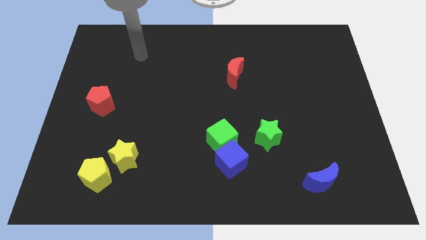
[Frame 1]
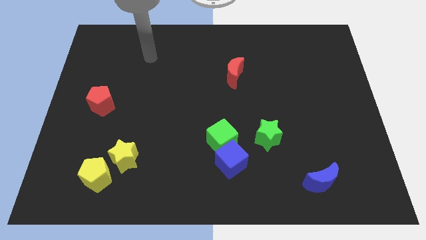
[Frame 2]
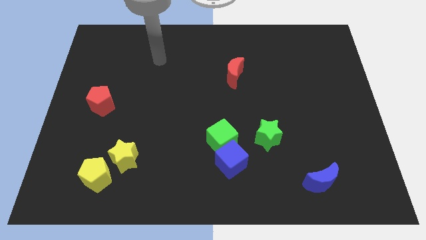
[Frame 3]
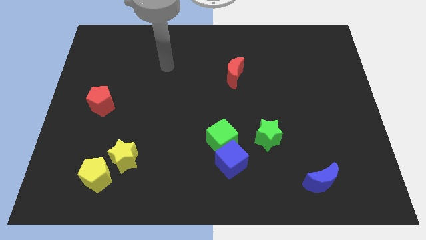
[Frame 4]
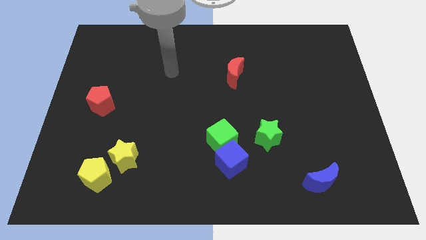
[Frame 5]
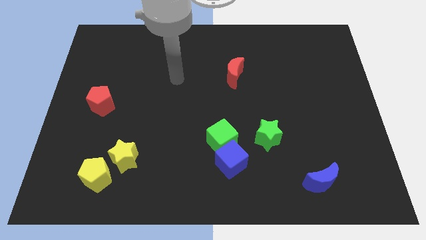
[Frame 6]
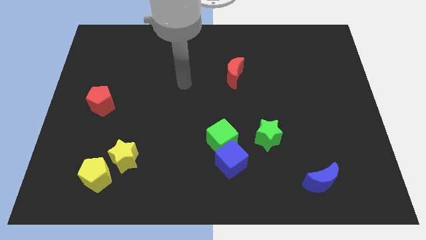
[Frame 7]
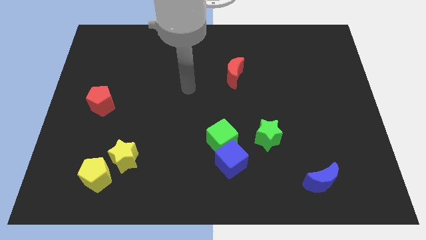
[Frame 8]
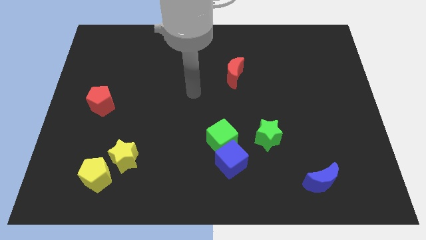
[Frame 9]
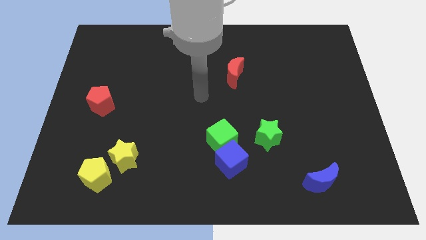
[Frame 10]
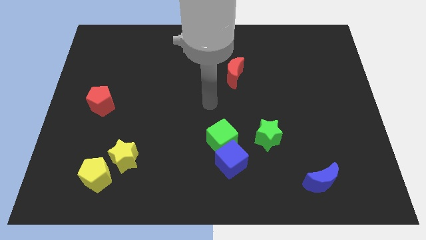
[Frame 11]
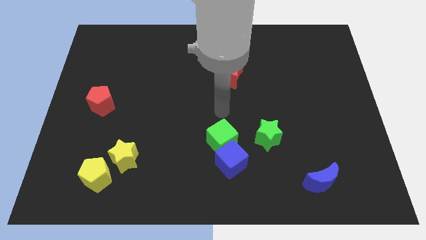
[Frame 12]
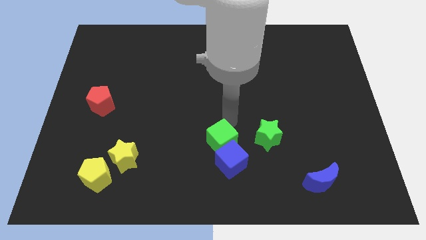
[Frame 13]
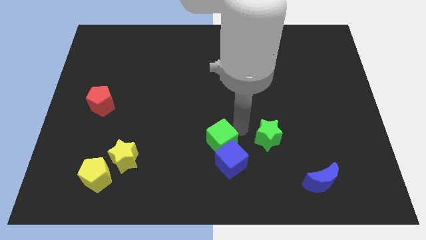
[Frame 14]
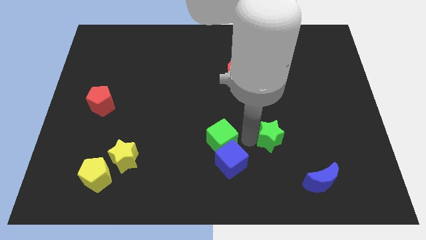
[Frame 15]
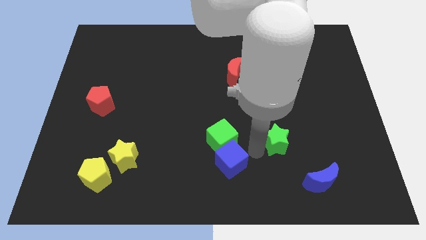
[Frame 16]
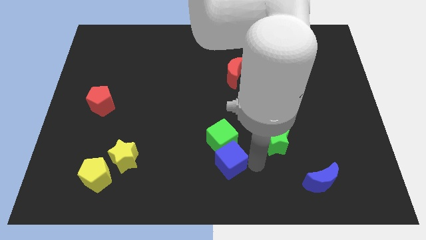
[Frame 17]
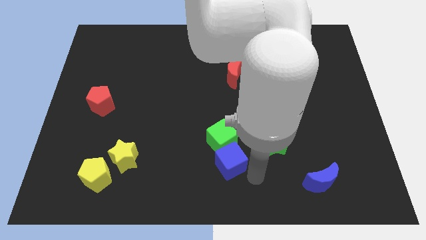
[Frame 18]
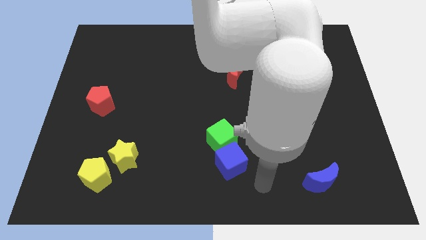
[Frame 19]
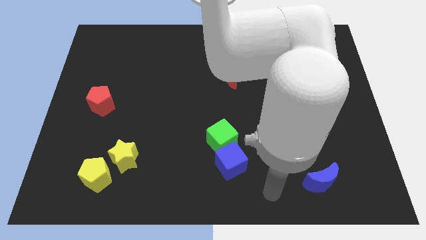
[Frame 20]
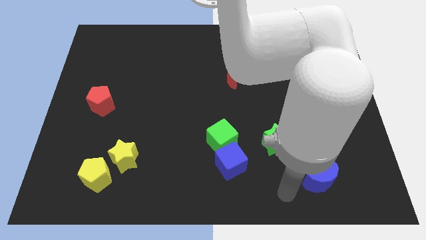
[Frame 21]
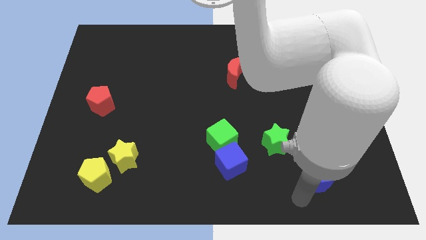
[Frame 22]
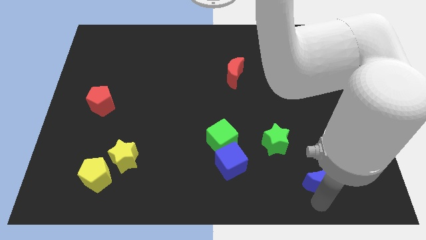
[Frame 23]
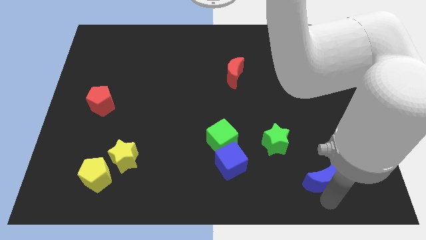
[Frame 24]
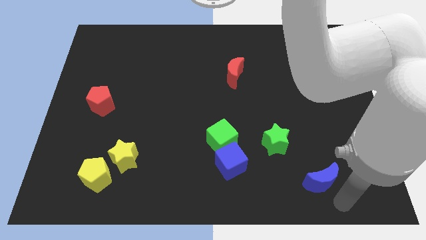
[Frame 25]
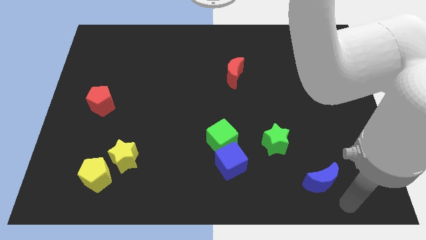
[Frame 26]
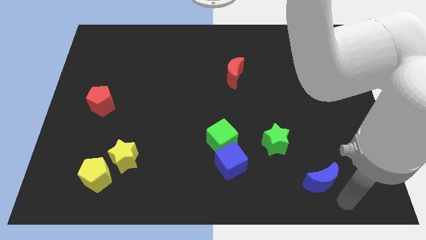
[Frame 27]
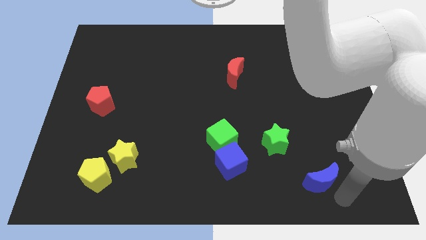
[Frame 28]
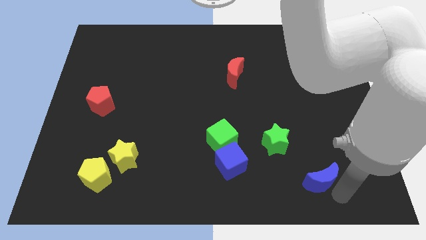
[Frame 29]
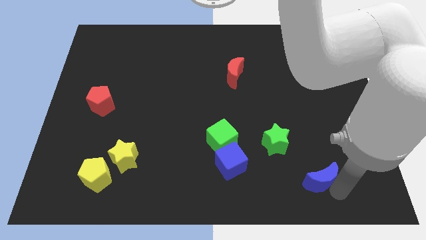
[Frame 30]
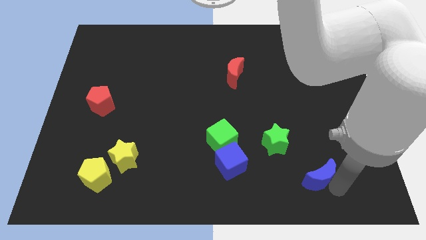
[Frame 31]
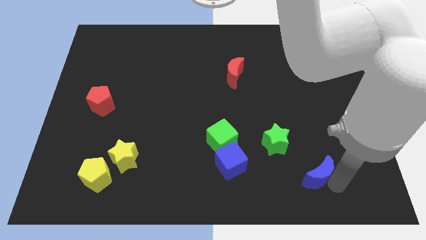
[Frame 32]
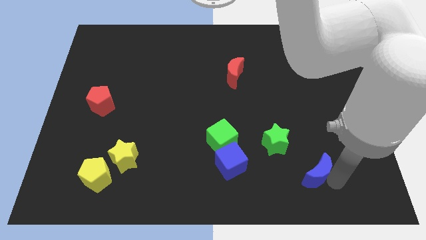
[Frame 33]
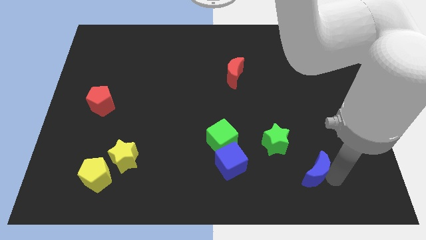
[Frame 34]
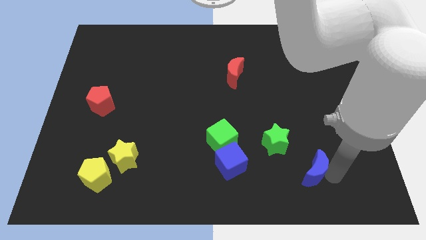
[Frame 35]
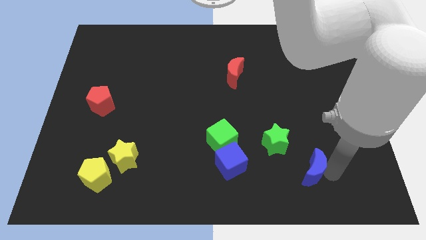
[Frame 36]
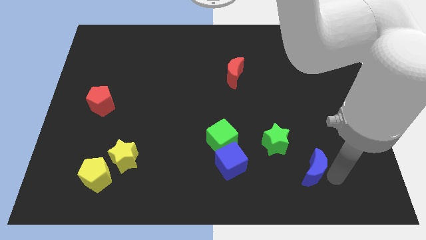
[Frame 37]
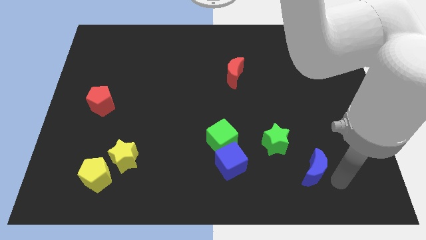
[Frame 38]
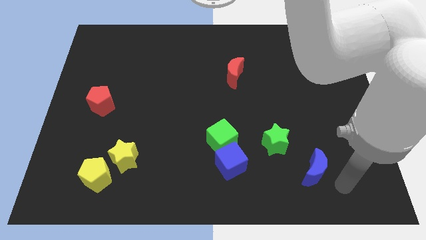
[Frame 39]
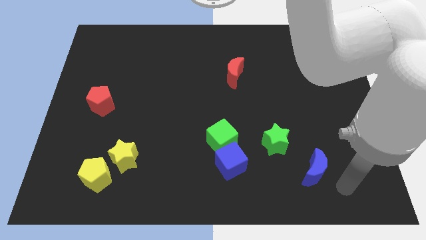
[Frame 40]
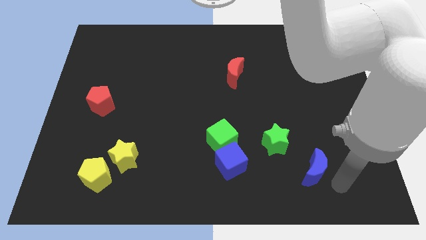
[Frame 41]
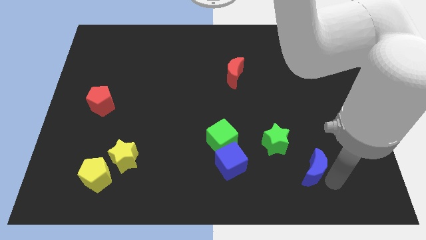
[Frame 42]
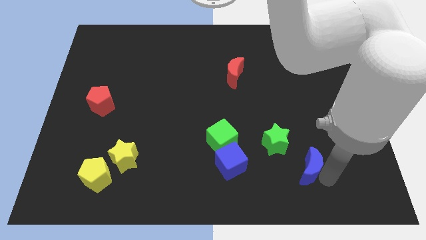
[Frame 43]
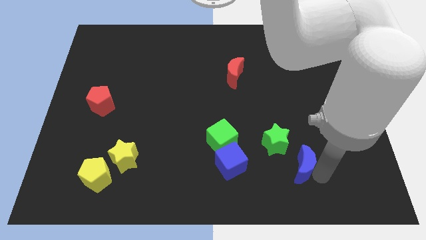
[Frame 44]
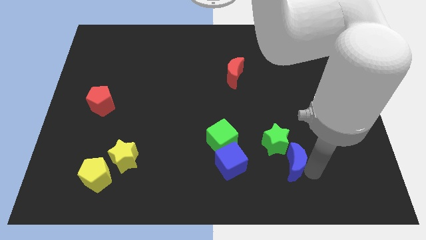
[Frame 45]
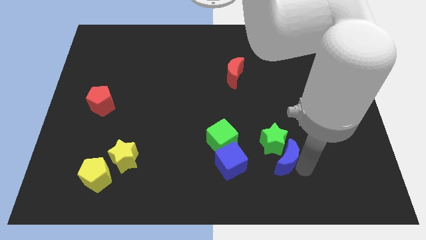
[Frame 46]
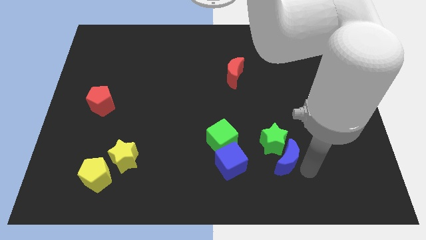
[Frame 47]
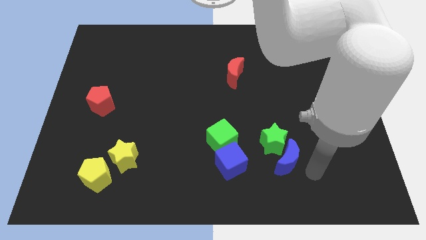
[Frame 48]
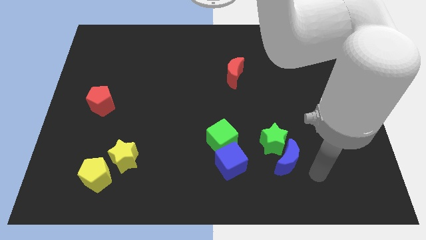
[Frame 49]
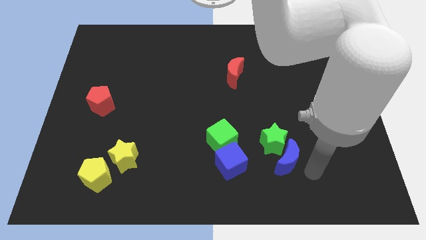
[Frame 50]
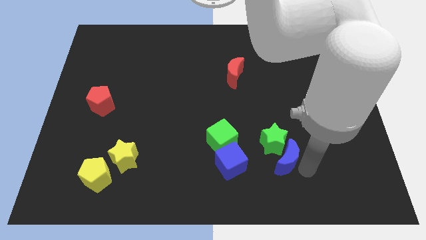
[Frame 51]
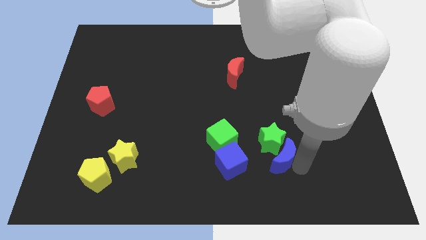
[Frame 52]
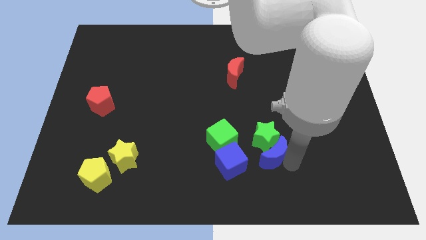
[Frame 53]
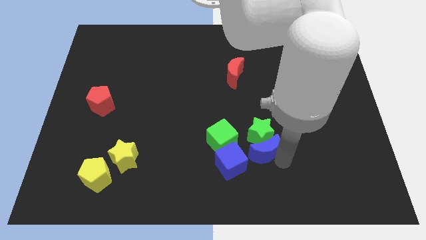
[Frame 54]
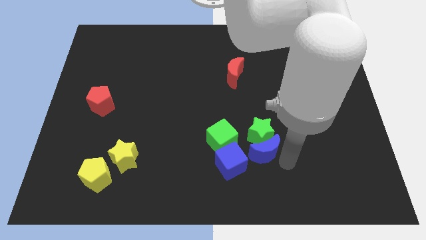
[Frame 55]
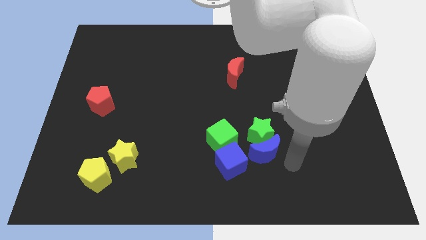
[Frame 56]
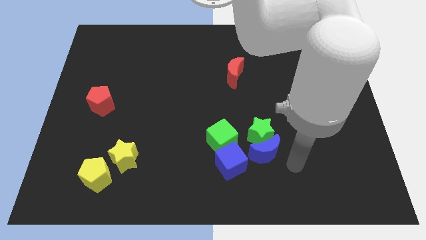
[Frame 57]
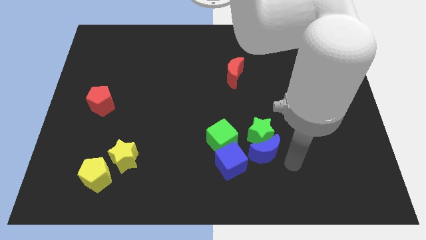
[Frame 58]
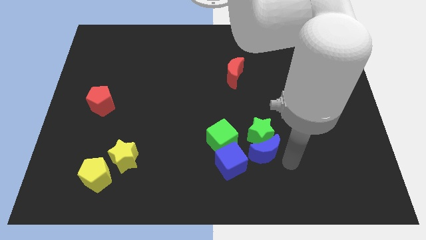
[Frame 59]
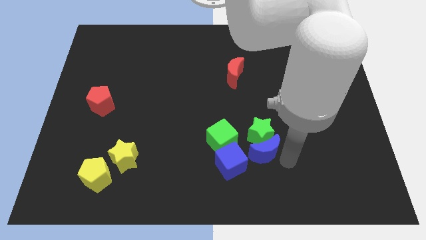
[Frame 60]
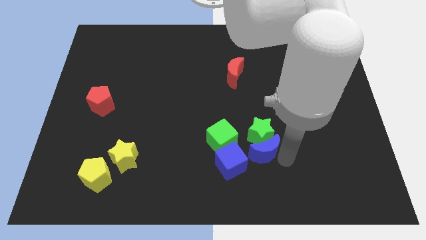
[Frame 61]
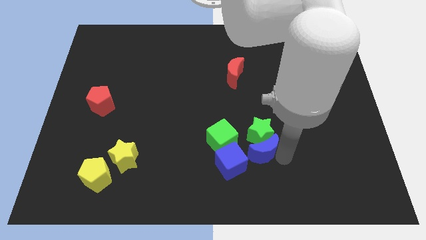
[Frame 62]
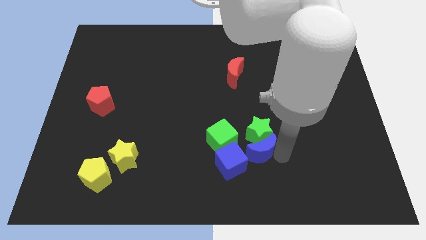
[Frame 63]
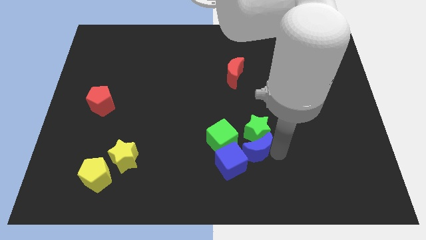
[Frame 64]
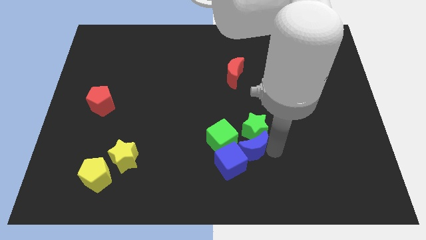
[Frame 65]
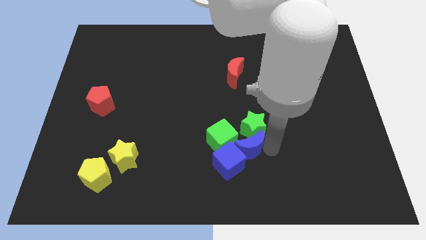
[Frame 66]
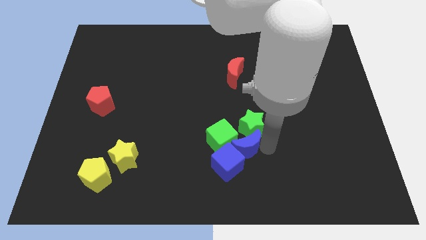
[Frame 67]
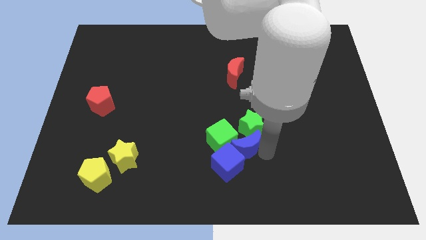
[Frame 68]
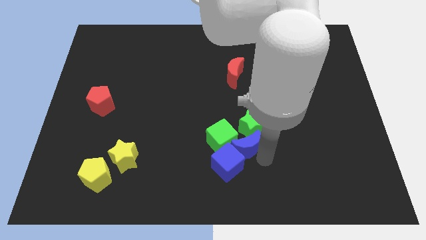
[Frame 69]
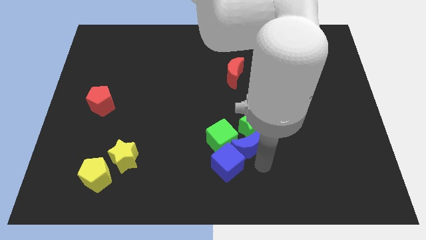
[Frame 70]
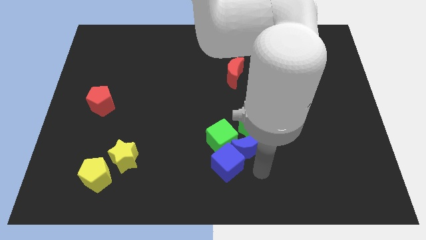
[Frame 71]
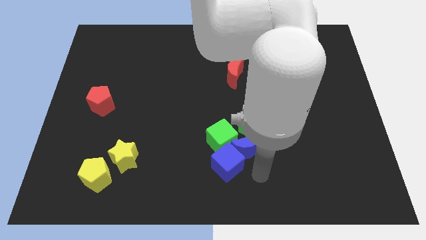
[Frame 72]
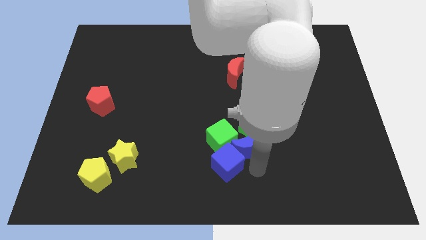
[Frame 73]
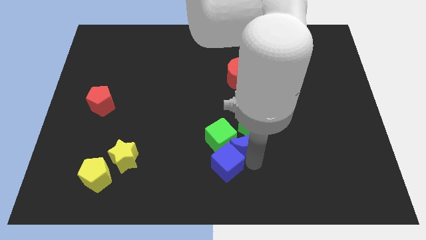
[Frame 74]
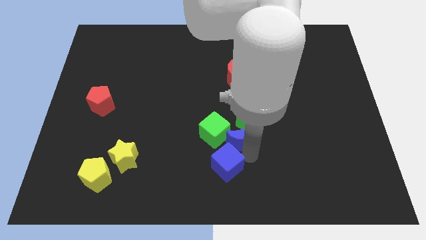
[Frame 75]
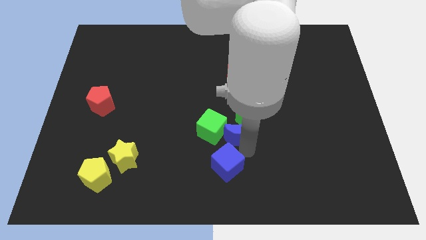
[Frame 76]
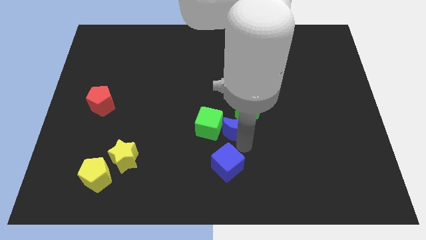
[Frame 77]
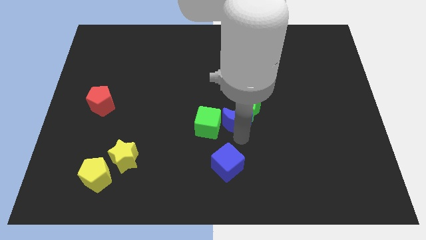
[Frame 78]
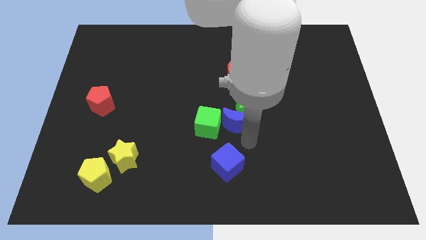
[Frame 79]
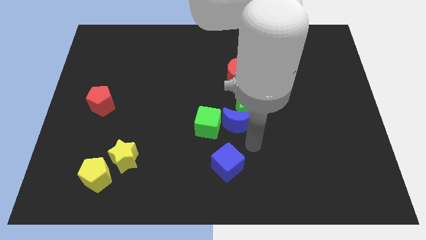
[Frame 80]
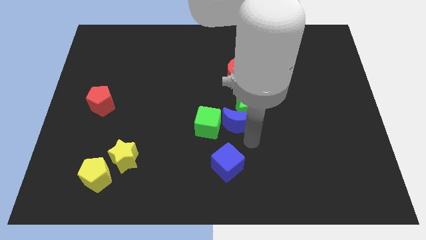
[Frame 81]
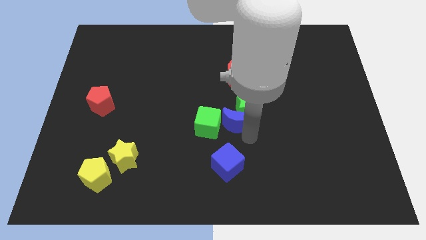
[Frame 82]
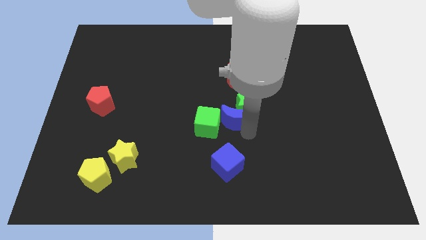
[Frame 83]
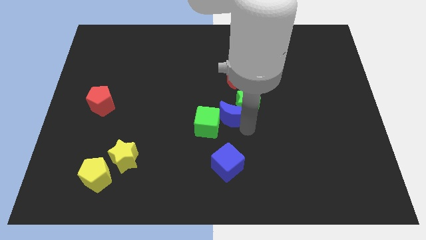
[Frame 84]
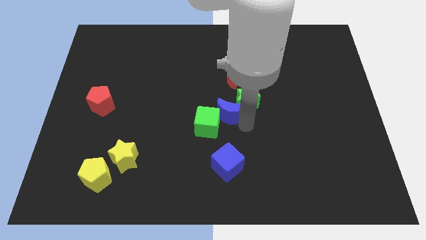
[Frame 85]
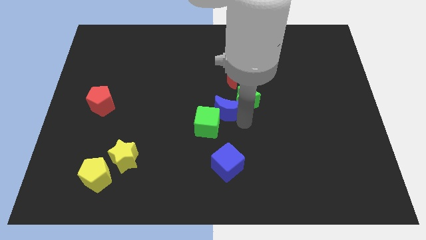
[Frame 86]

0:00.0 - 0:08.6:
put the blue moon above the green cube
